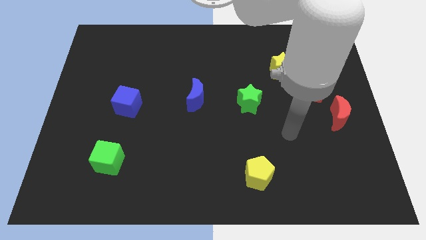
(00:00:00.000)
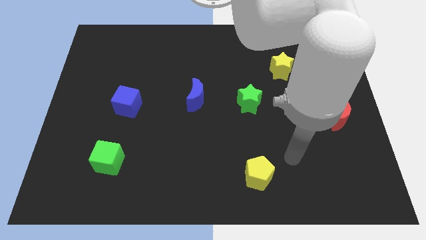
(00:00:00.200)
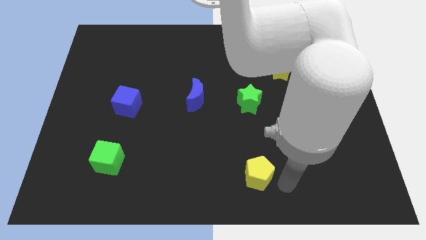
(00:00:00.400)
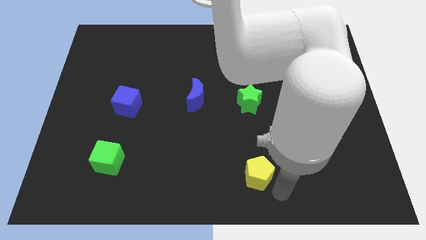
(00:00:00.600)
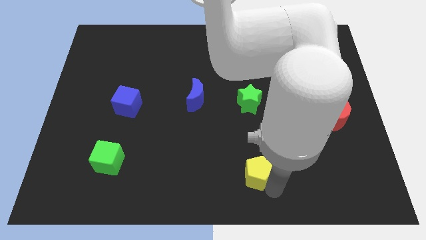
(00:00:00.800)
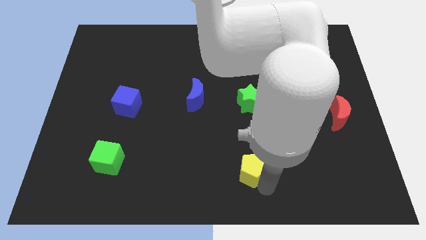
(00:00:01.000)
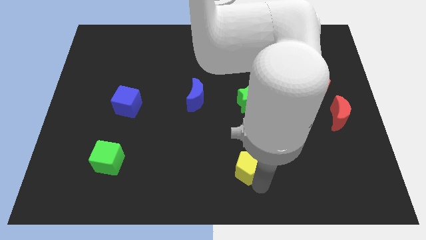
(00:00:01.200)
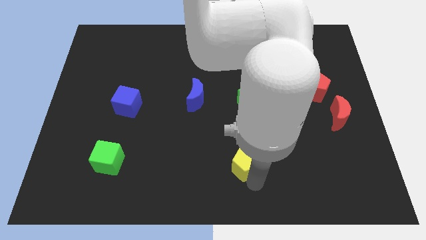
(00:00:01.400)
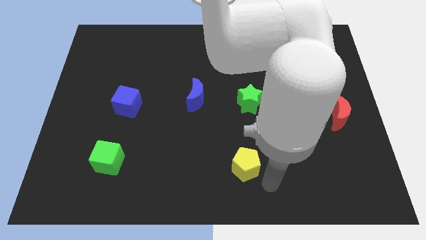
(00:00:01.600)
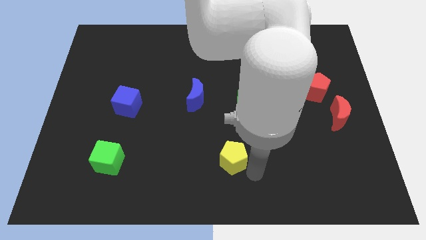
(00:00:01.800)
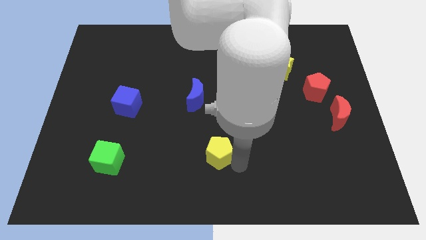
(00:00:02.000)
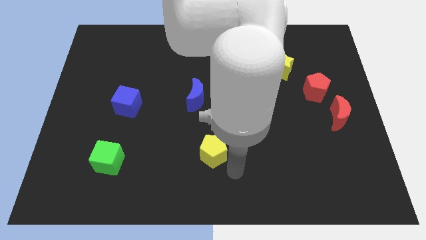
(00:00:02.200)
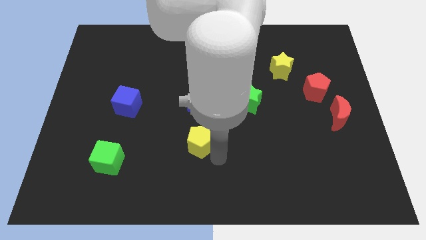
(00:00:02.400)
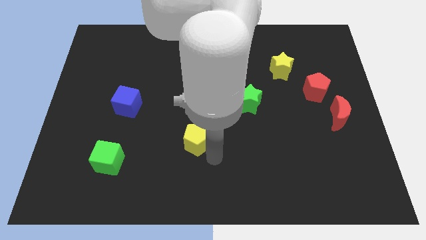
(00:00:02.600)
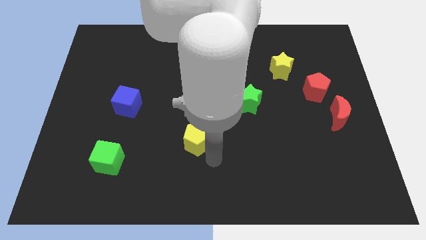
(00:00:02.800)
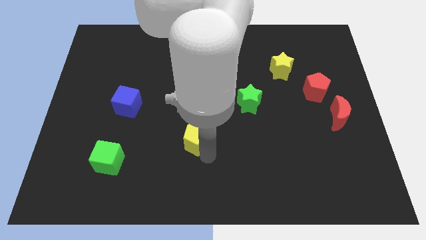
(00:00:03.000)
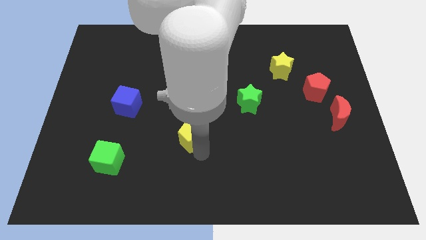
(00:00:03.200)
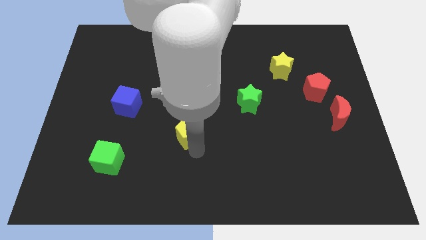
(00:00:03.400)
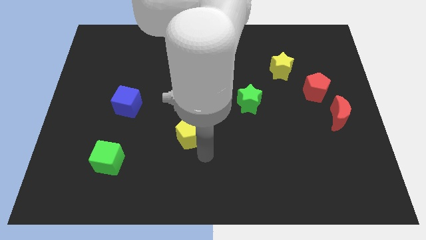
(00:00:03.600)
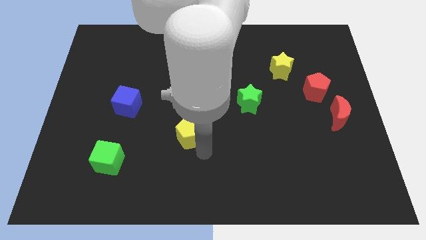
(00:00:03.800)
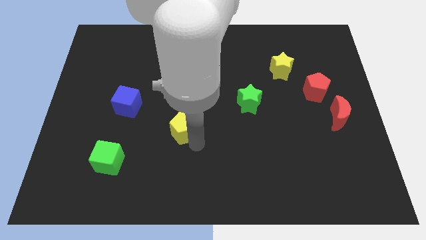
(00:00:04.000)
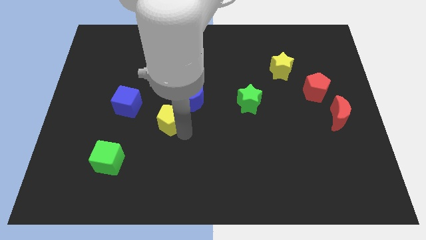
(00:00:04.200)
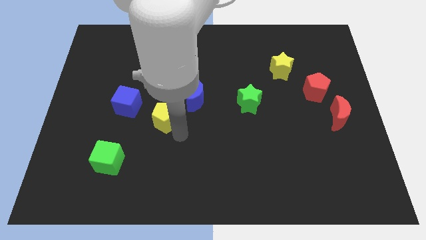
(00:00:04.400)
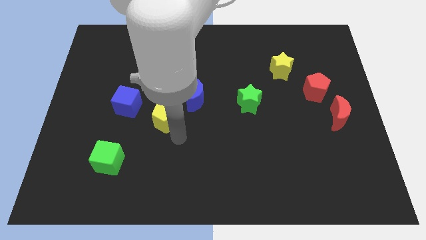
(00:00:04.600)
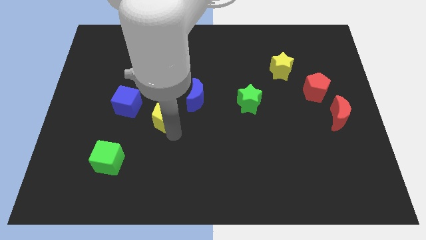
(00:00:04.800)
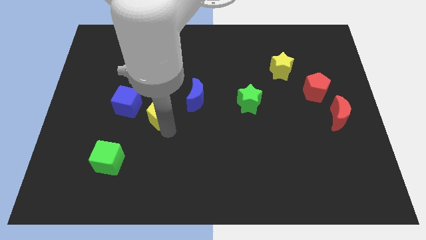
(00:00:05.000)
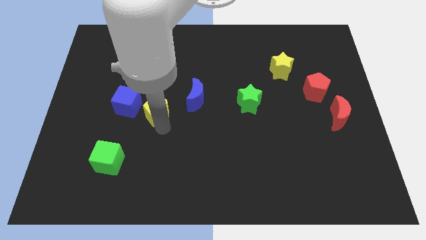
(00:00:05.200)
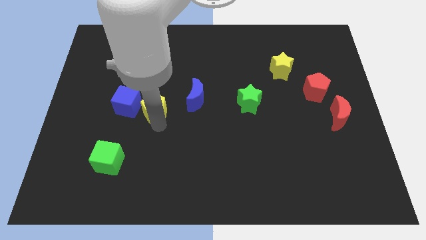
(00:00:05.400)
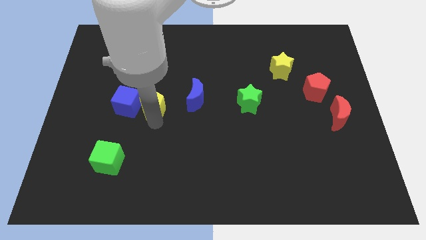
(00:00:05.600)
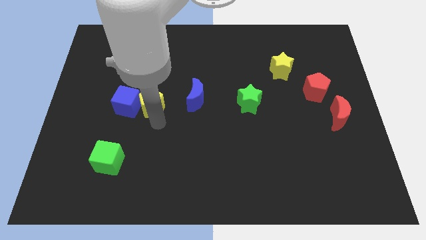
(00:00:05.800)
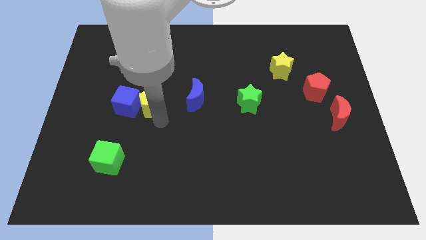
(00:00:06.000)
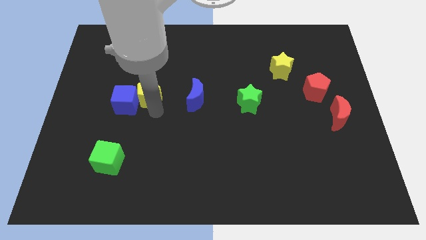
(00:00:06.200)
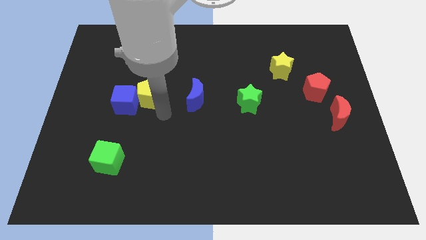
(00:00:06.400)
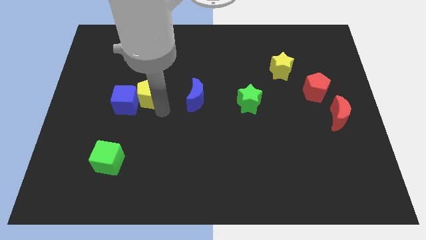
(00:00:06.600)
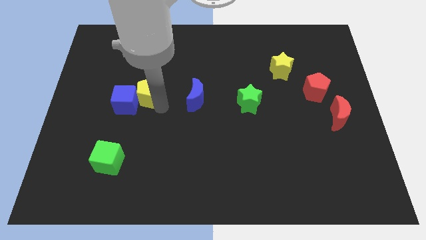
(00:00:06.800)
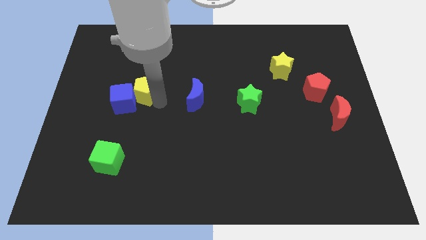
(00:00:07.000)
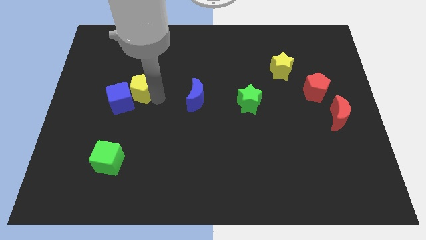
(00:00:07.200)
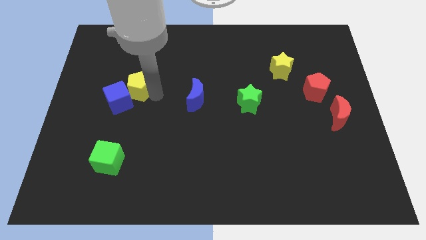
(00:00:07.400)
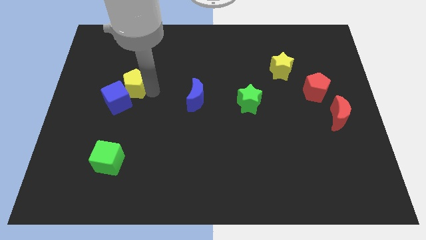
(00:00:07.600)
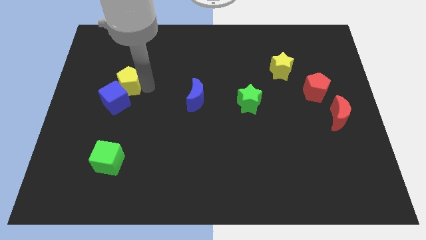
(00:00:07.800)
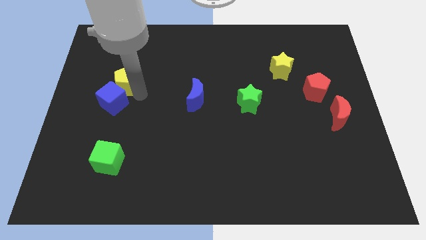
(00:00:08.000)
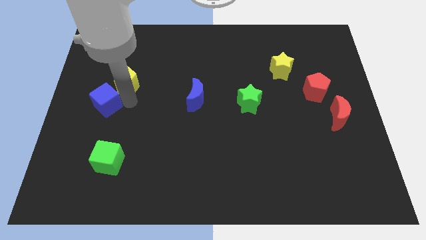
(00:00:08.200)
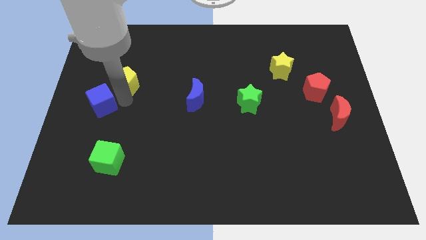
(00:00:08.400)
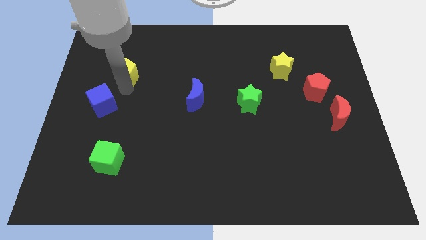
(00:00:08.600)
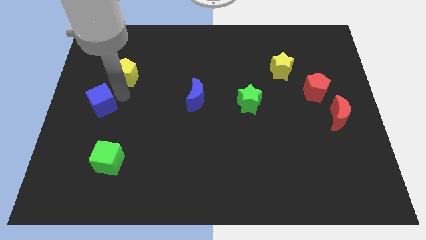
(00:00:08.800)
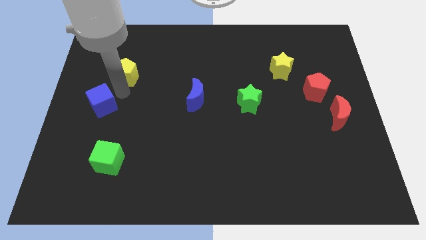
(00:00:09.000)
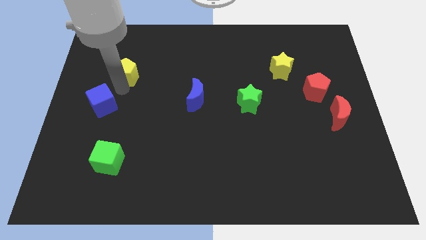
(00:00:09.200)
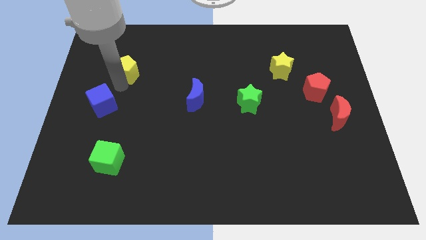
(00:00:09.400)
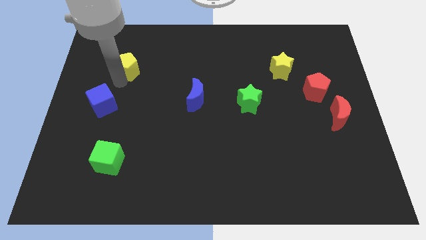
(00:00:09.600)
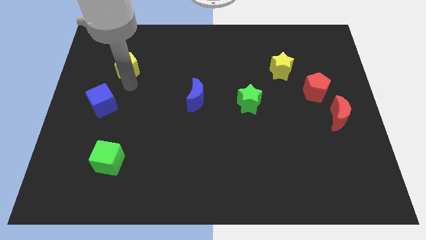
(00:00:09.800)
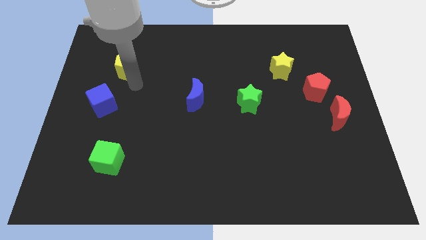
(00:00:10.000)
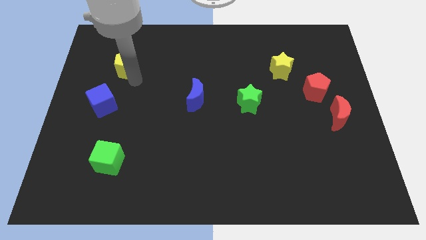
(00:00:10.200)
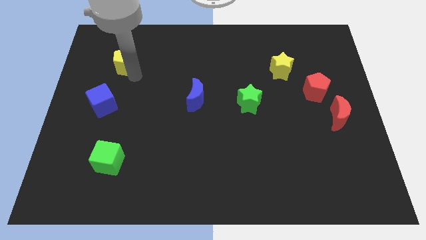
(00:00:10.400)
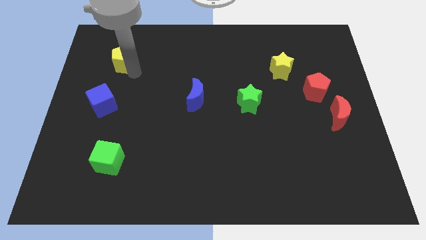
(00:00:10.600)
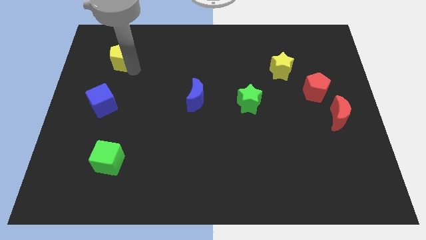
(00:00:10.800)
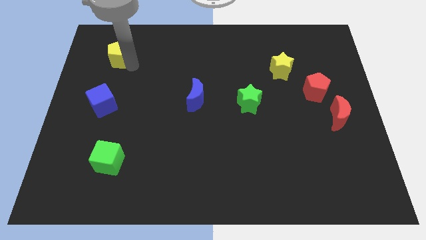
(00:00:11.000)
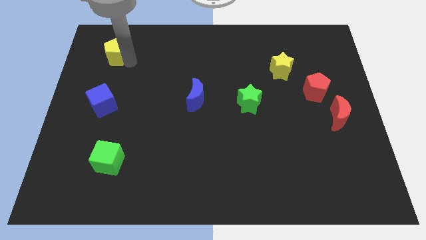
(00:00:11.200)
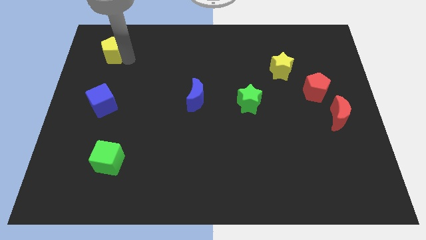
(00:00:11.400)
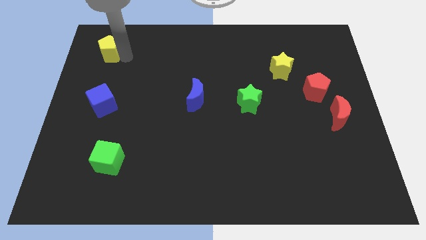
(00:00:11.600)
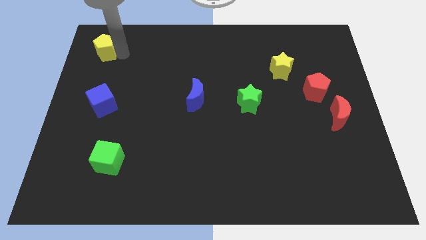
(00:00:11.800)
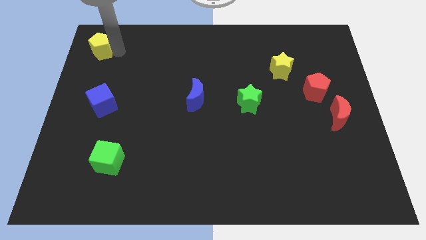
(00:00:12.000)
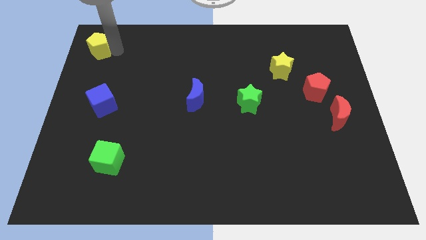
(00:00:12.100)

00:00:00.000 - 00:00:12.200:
put the yellow pentagon to the top left of the board
